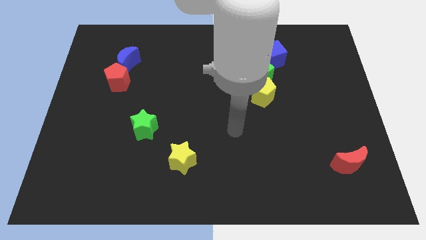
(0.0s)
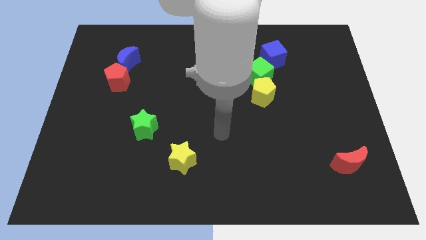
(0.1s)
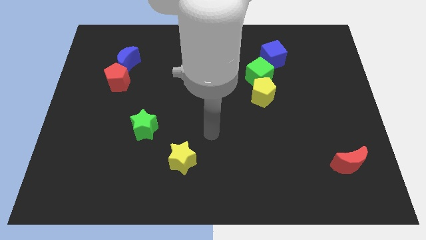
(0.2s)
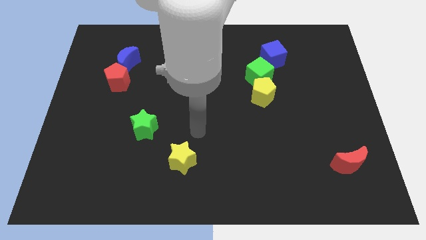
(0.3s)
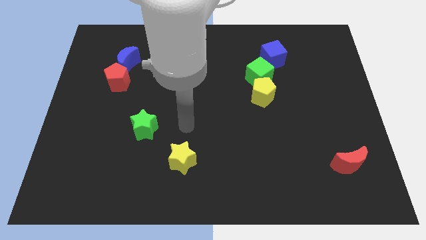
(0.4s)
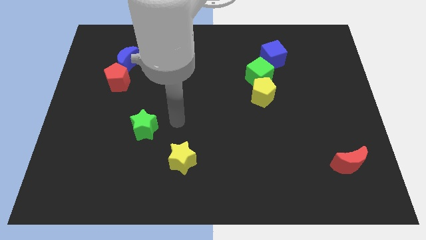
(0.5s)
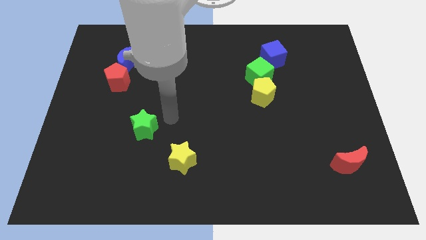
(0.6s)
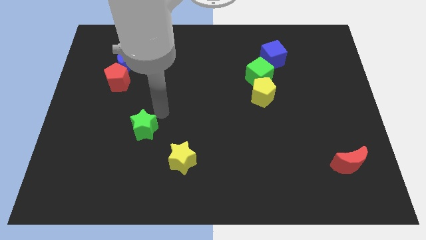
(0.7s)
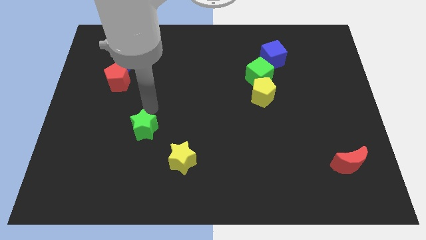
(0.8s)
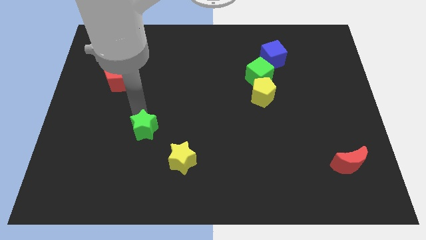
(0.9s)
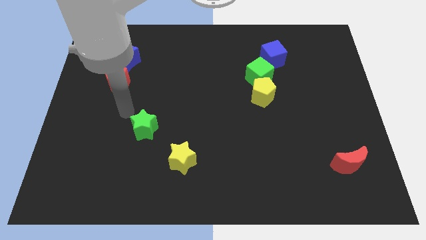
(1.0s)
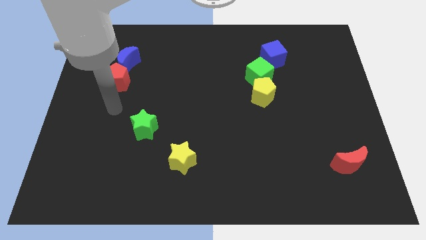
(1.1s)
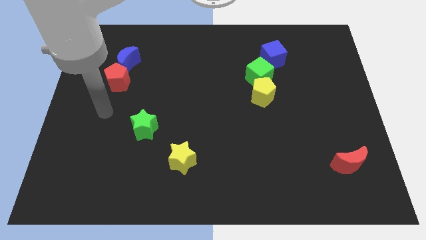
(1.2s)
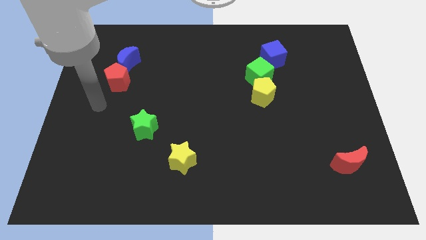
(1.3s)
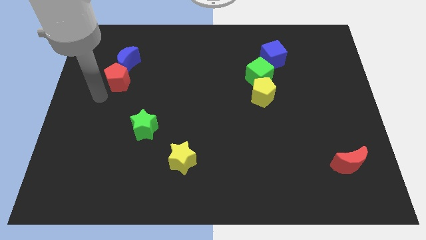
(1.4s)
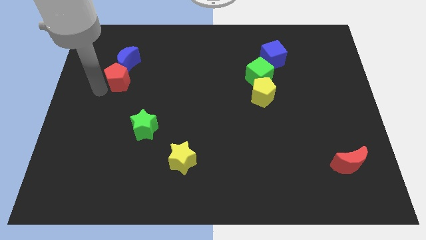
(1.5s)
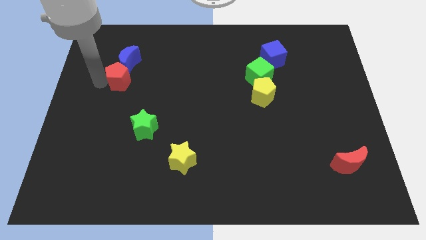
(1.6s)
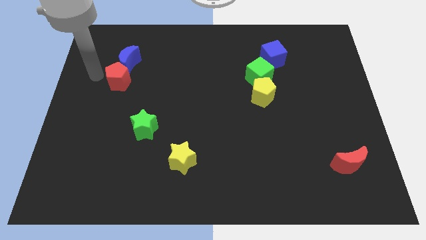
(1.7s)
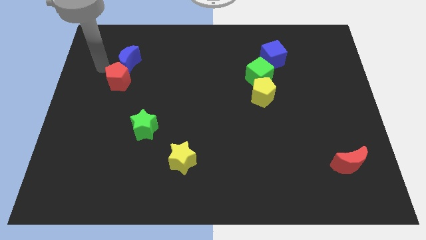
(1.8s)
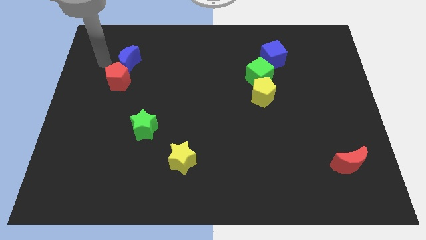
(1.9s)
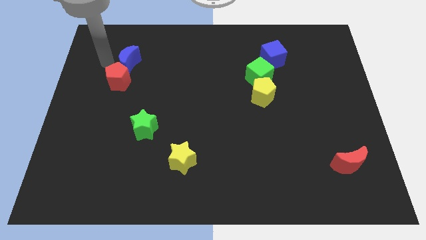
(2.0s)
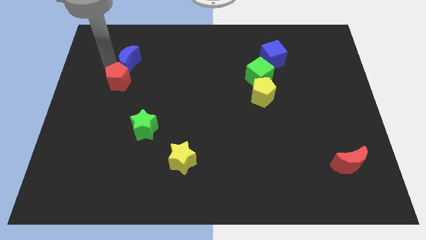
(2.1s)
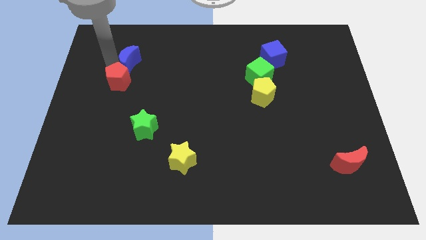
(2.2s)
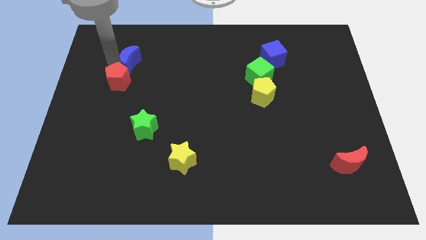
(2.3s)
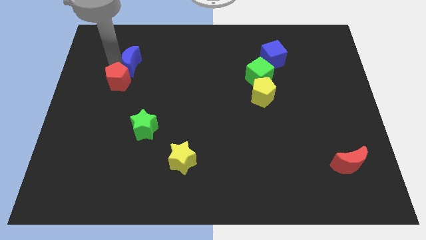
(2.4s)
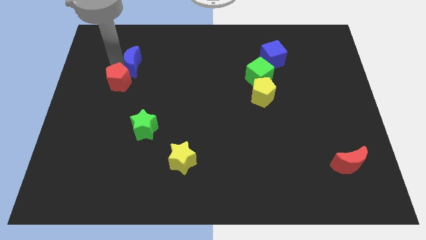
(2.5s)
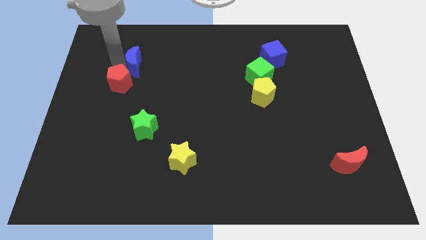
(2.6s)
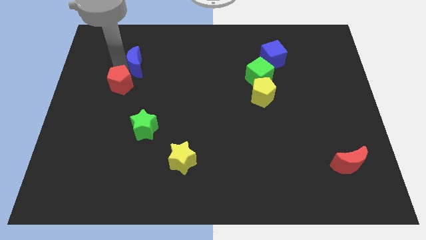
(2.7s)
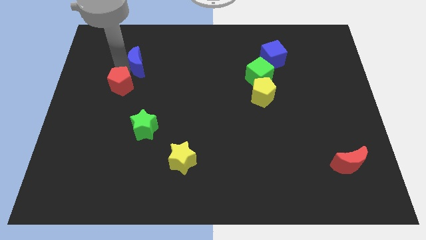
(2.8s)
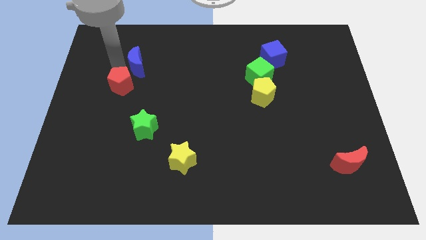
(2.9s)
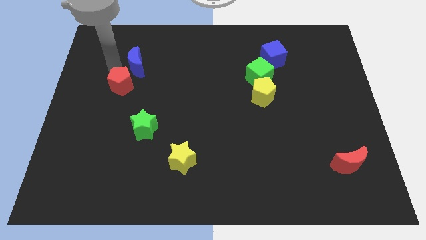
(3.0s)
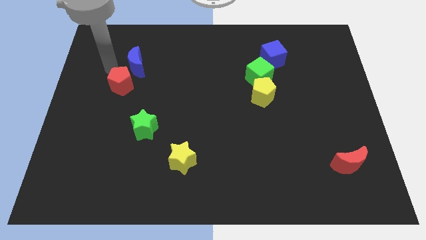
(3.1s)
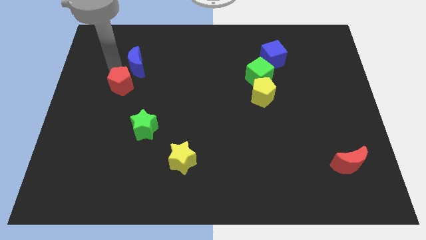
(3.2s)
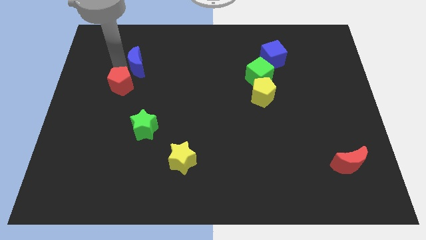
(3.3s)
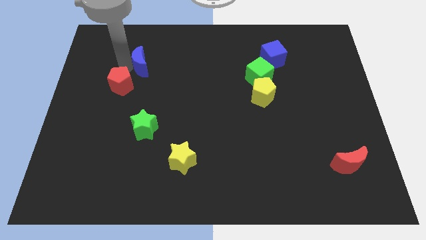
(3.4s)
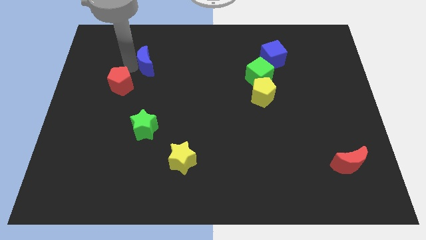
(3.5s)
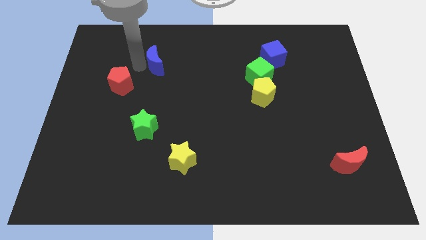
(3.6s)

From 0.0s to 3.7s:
slightly slide the blue moon to the right

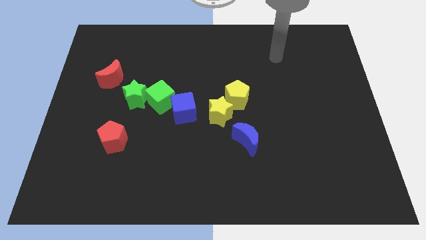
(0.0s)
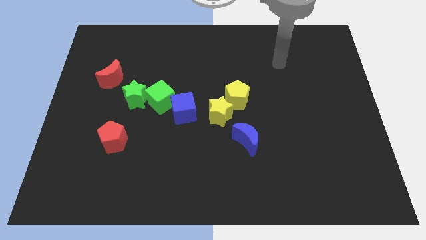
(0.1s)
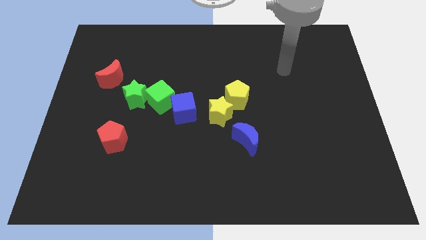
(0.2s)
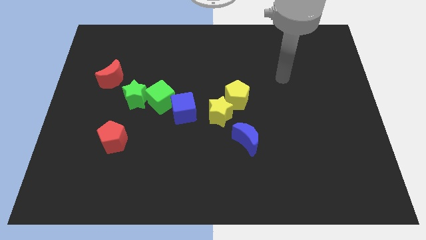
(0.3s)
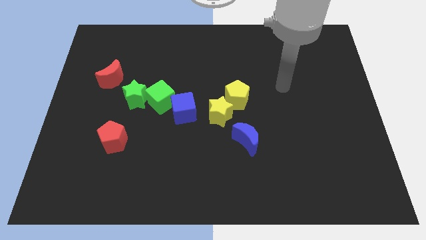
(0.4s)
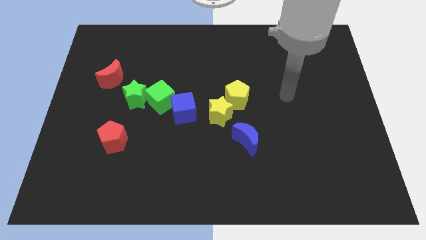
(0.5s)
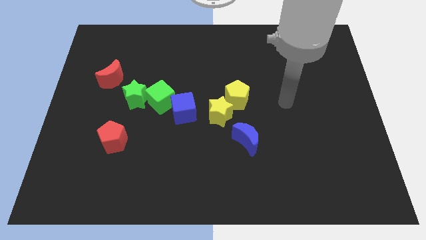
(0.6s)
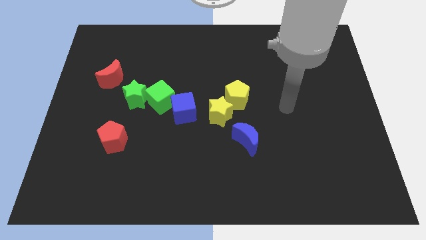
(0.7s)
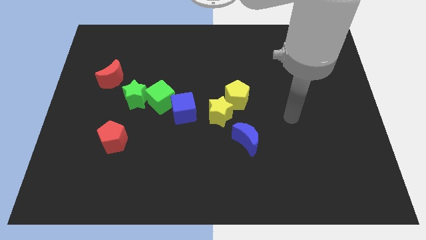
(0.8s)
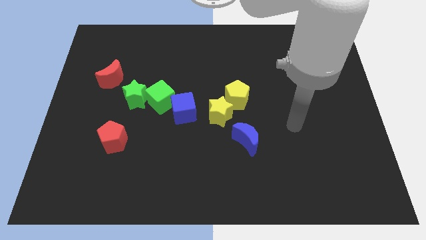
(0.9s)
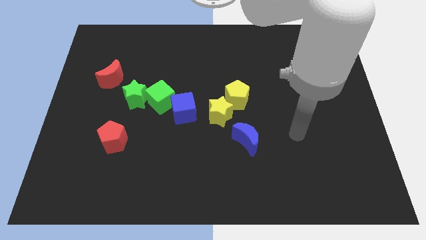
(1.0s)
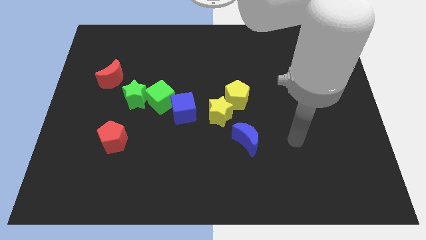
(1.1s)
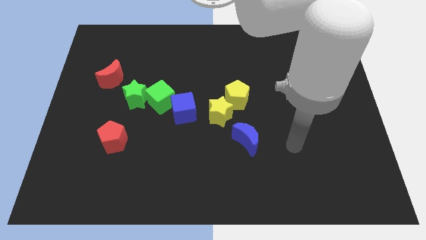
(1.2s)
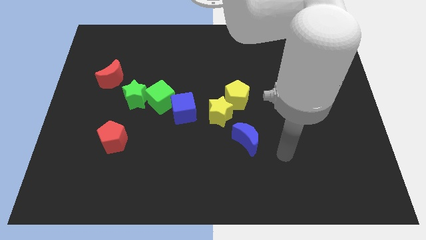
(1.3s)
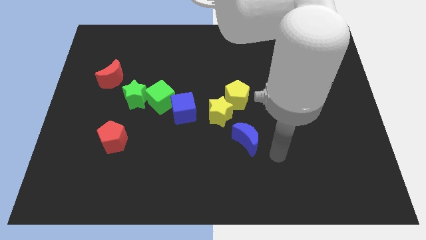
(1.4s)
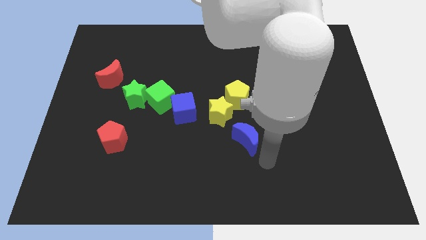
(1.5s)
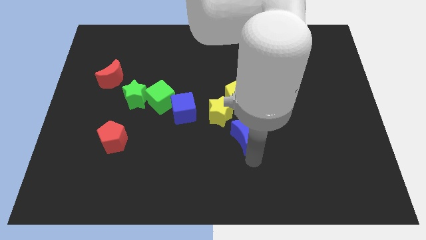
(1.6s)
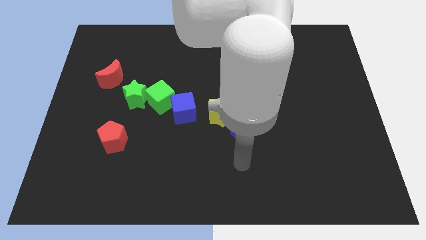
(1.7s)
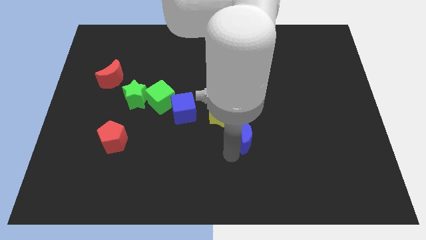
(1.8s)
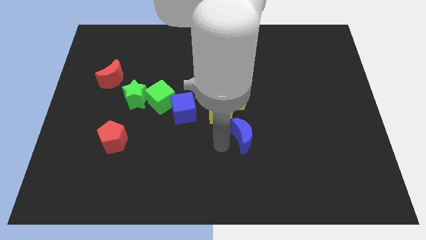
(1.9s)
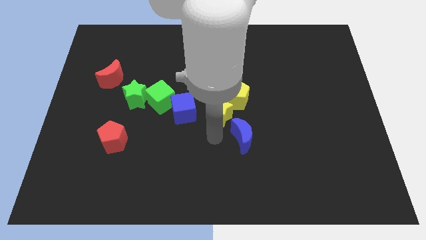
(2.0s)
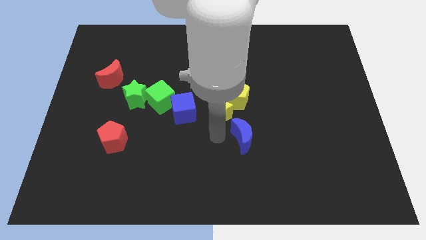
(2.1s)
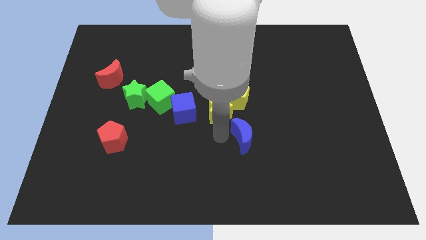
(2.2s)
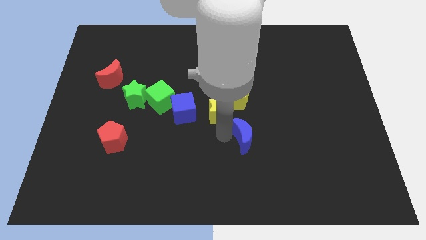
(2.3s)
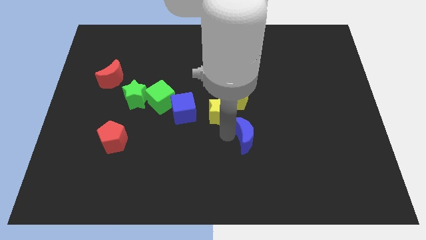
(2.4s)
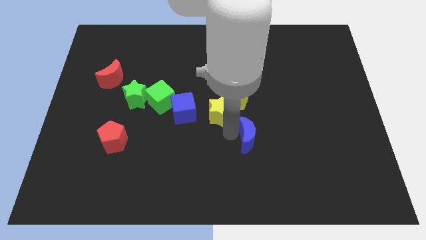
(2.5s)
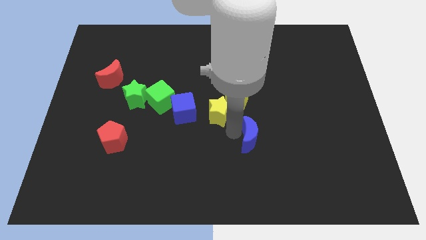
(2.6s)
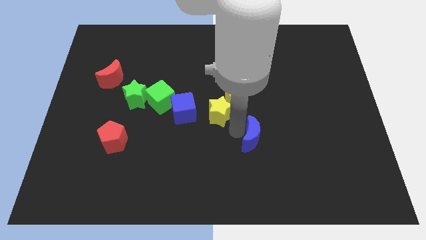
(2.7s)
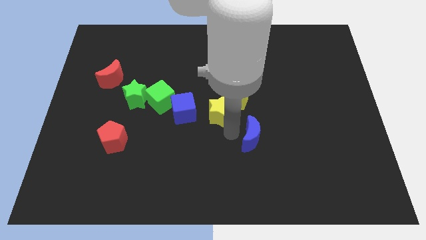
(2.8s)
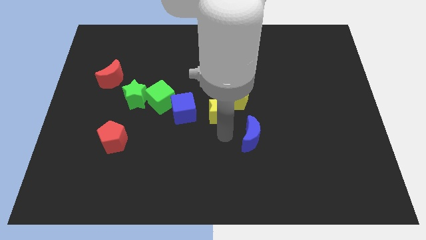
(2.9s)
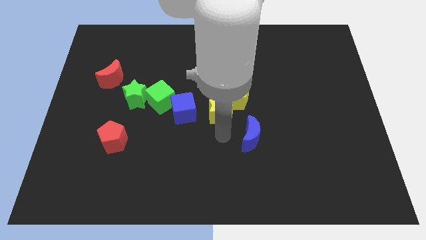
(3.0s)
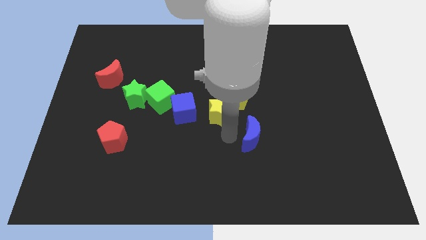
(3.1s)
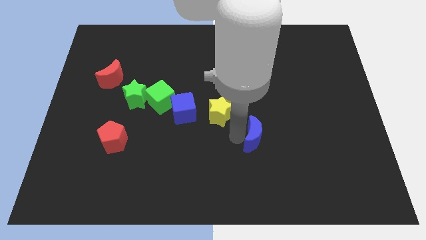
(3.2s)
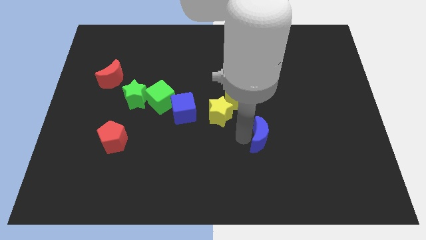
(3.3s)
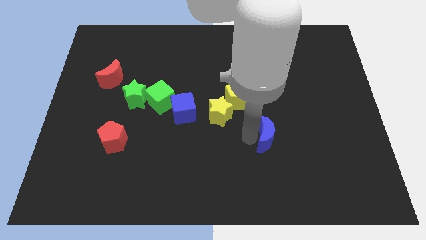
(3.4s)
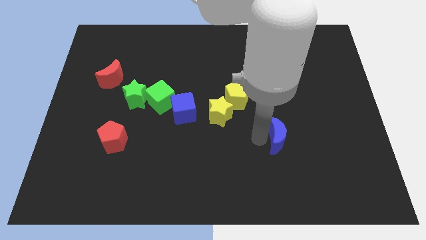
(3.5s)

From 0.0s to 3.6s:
slide the blue moon to the right somewhat
